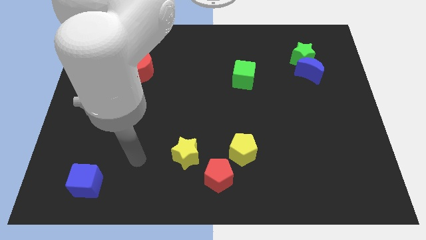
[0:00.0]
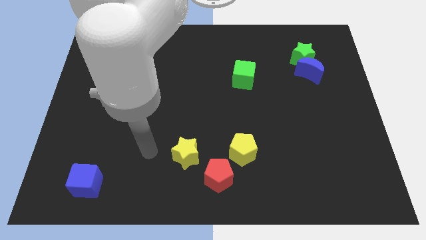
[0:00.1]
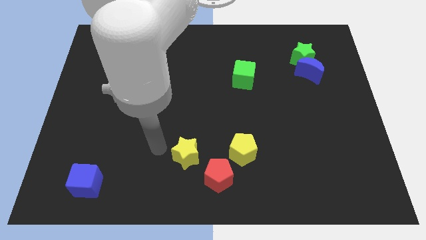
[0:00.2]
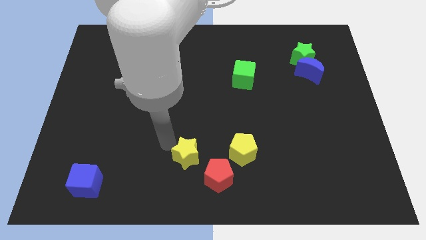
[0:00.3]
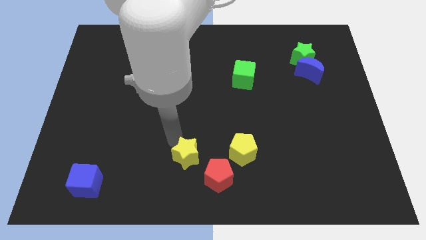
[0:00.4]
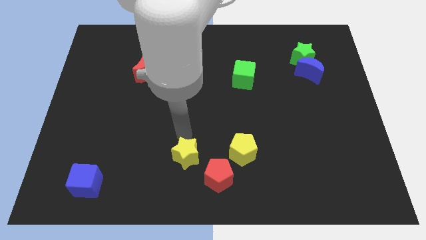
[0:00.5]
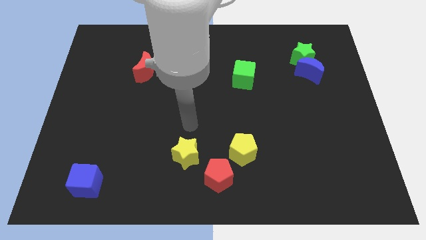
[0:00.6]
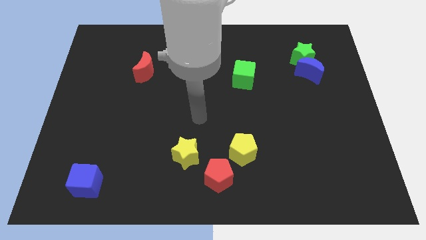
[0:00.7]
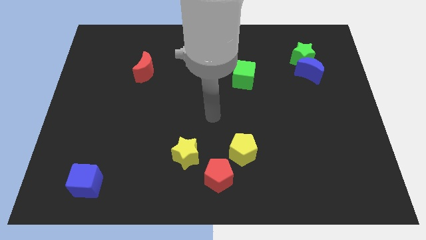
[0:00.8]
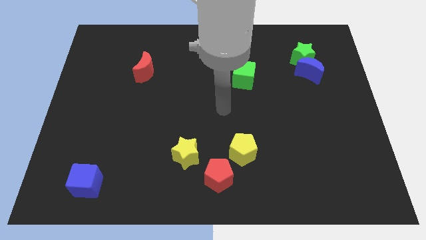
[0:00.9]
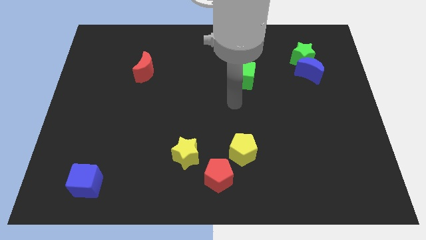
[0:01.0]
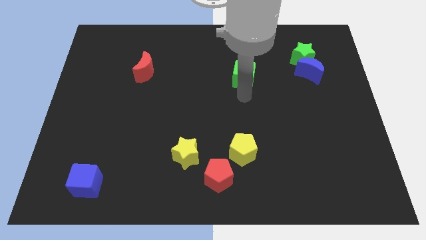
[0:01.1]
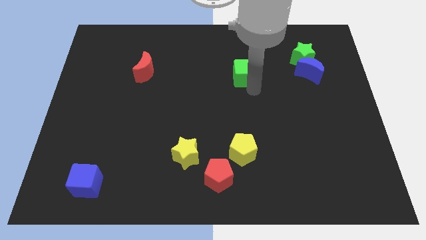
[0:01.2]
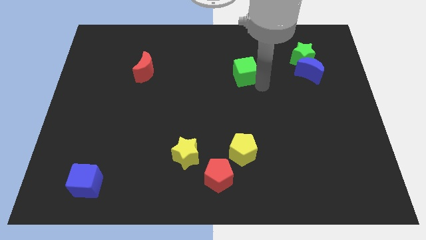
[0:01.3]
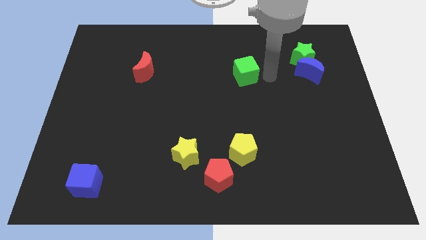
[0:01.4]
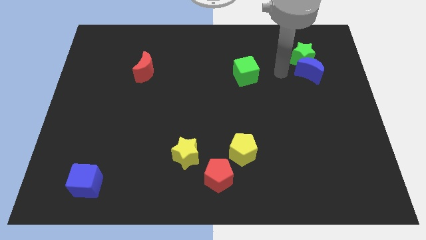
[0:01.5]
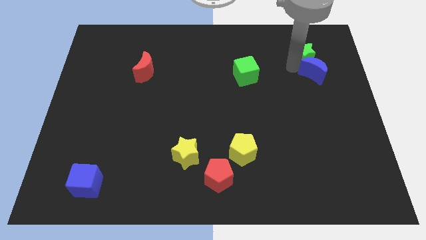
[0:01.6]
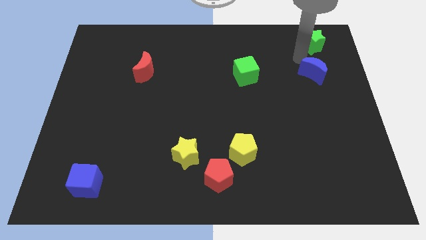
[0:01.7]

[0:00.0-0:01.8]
separate the blue moon from the green star

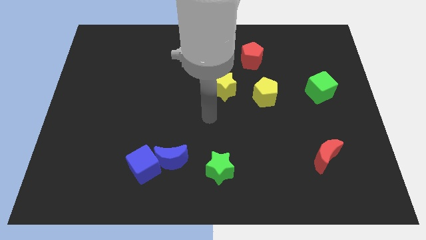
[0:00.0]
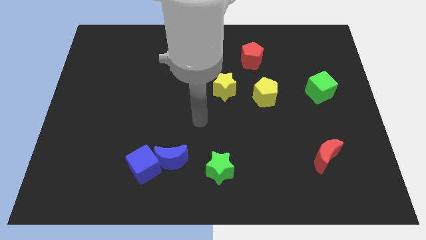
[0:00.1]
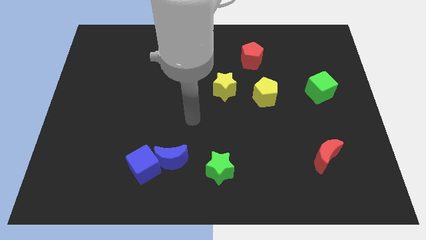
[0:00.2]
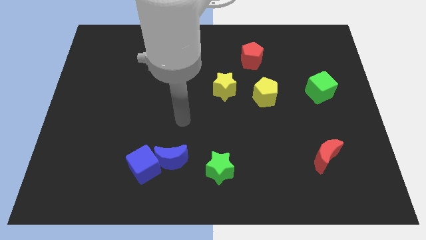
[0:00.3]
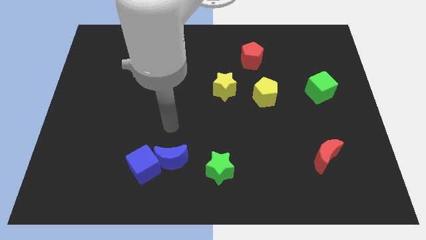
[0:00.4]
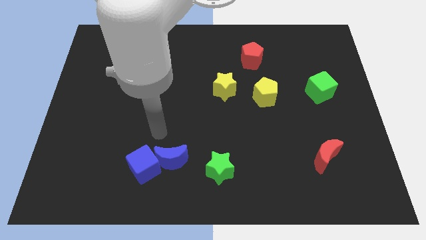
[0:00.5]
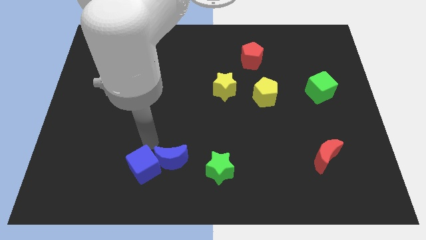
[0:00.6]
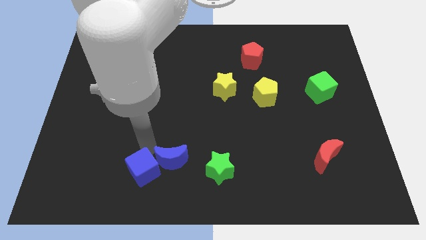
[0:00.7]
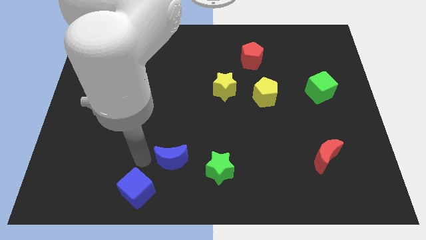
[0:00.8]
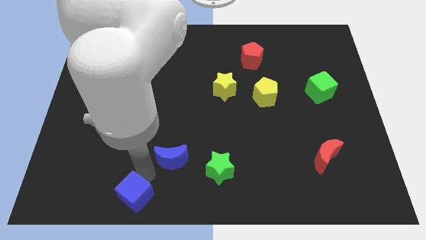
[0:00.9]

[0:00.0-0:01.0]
move the blue moon away from the blue cube

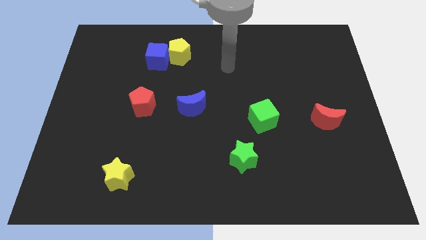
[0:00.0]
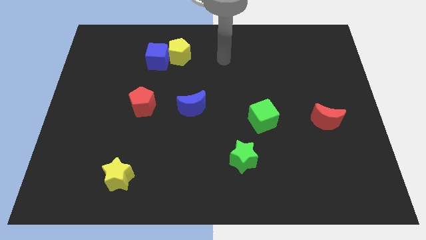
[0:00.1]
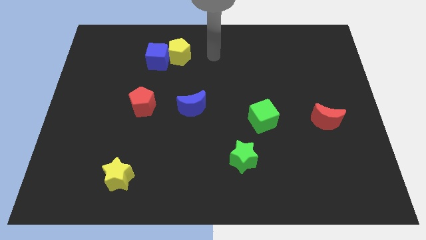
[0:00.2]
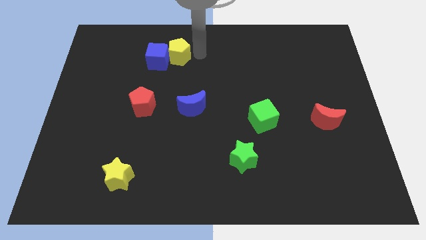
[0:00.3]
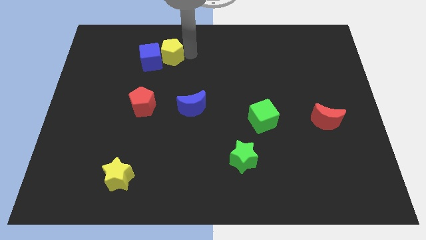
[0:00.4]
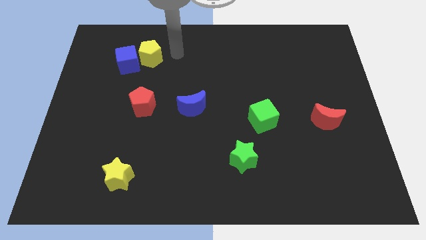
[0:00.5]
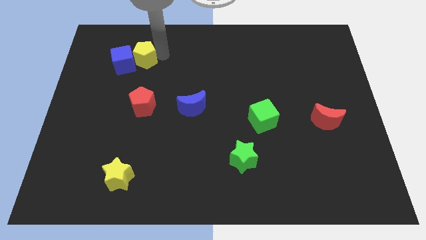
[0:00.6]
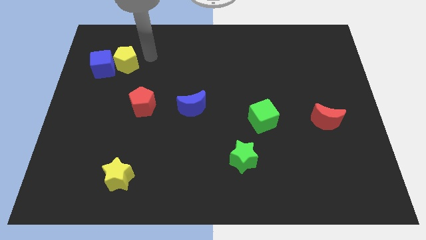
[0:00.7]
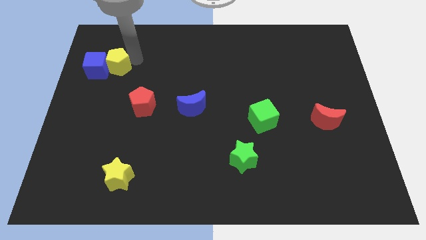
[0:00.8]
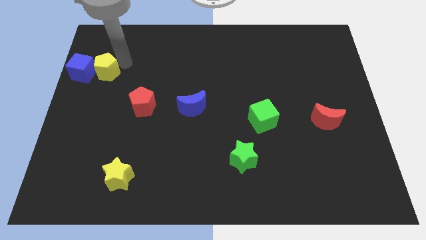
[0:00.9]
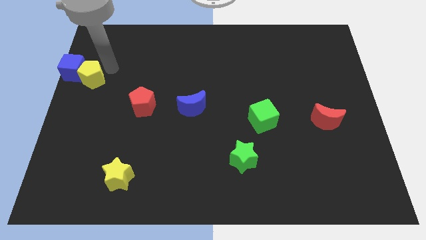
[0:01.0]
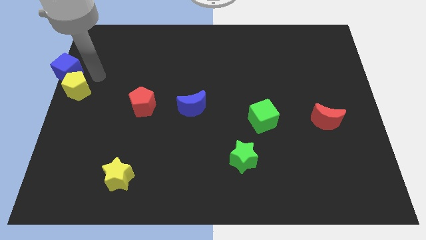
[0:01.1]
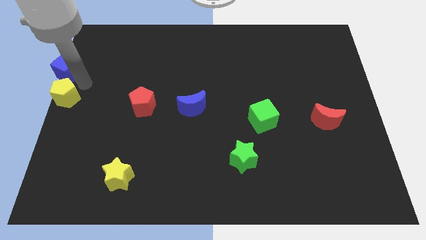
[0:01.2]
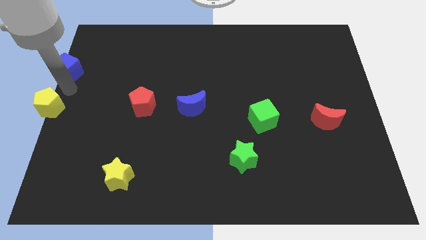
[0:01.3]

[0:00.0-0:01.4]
move the blue cube away from the yellow pentagon

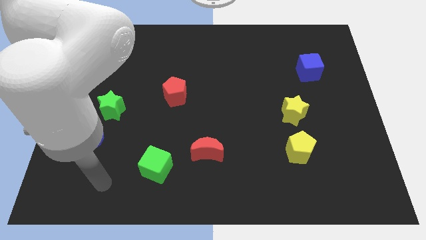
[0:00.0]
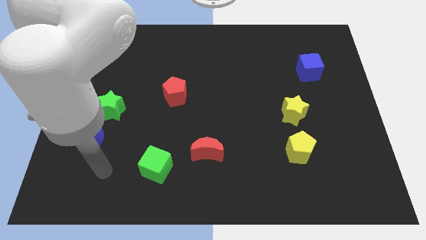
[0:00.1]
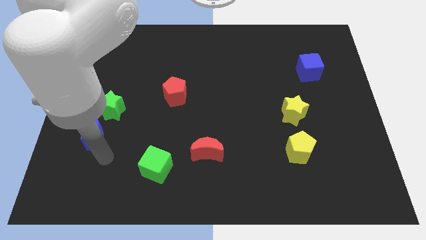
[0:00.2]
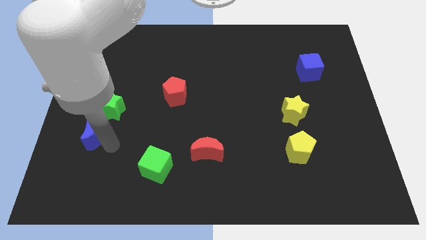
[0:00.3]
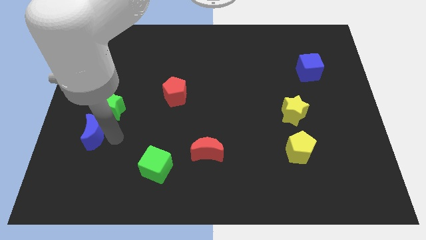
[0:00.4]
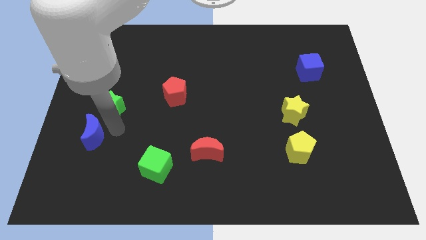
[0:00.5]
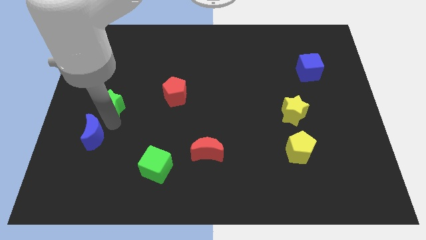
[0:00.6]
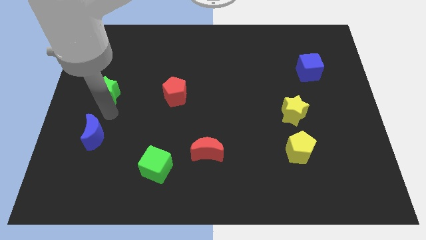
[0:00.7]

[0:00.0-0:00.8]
pull the blue moon apart from the green star

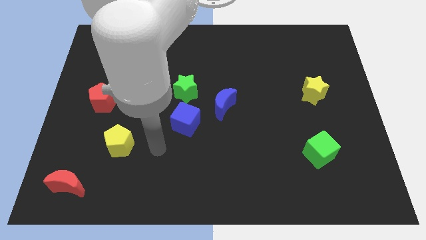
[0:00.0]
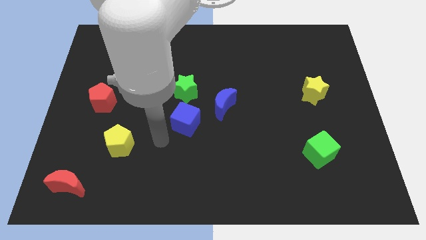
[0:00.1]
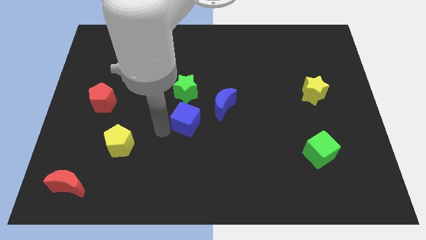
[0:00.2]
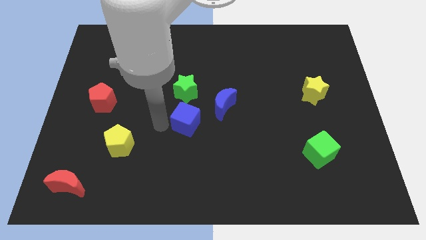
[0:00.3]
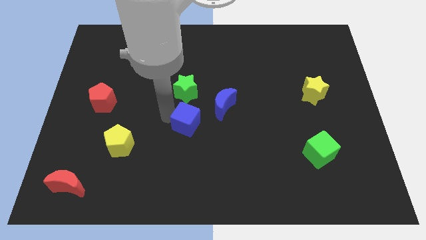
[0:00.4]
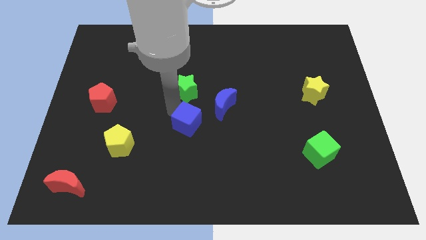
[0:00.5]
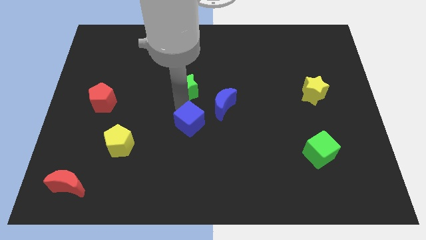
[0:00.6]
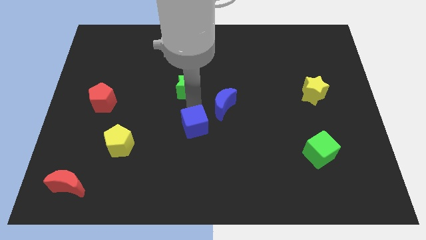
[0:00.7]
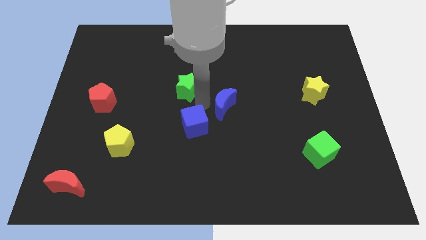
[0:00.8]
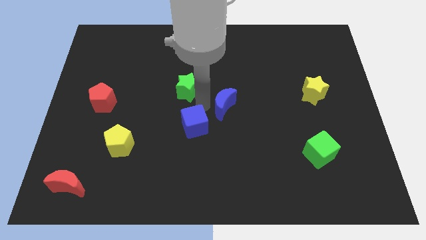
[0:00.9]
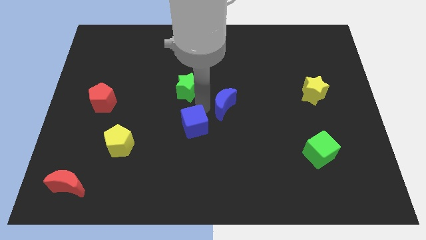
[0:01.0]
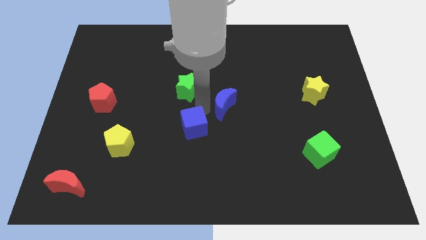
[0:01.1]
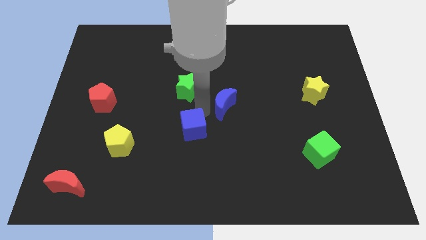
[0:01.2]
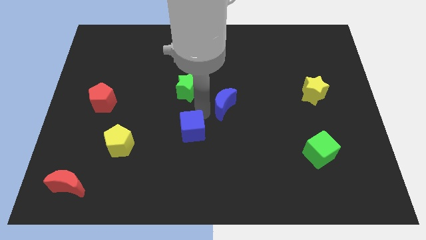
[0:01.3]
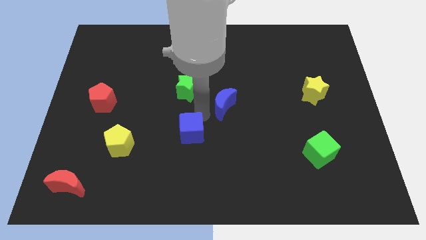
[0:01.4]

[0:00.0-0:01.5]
pull the blue cube apart from the green star and blue moon

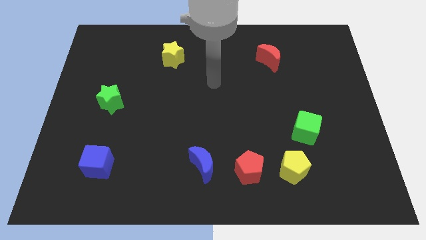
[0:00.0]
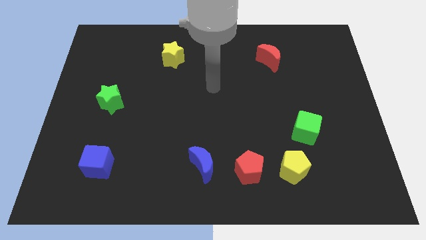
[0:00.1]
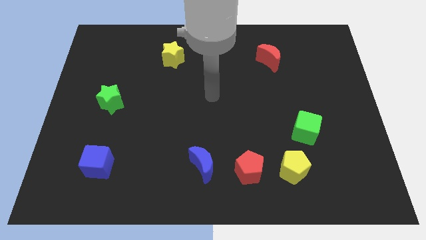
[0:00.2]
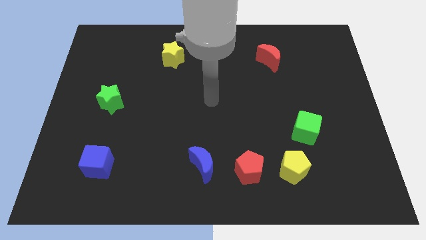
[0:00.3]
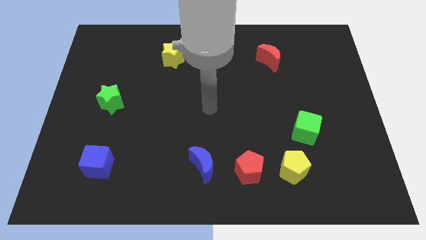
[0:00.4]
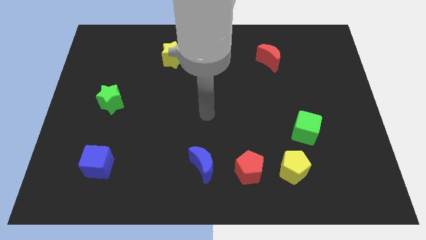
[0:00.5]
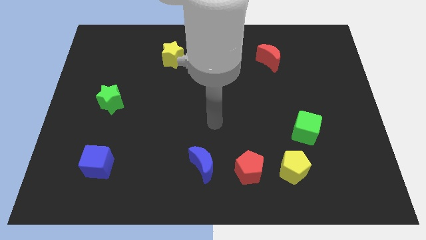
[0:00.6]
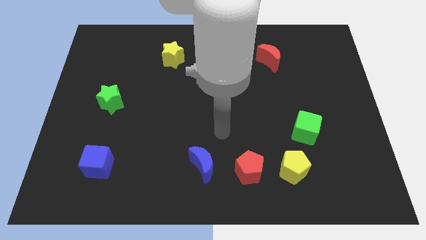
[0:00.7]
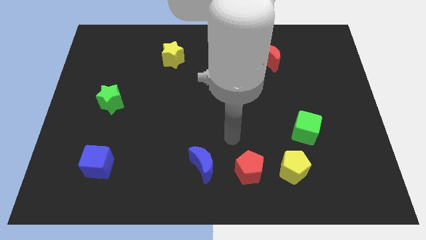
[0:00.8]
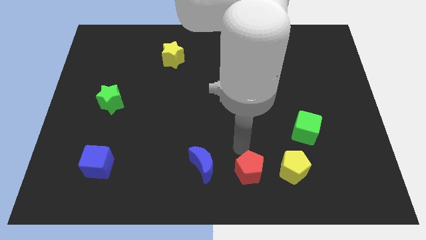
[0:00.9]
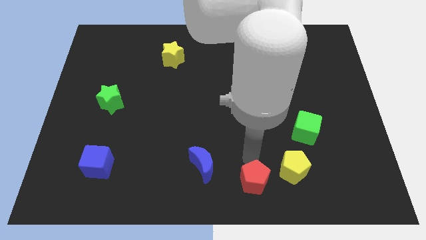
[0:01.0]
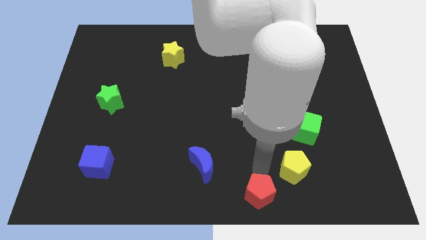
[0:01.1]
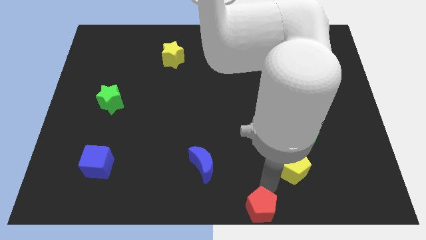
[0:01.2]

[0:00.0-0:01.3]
separate the yellow pentagon from the red pentagon

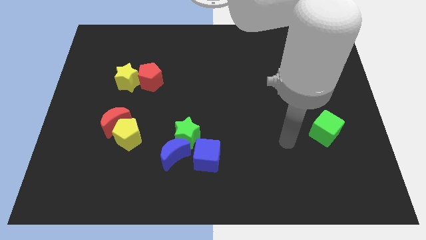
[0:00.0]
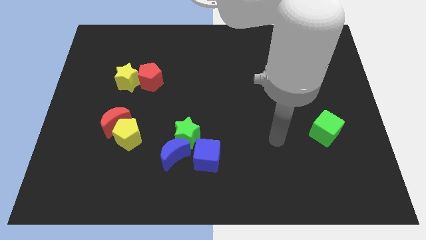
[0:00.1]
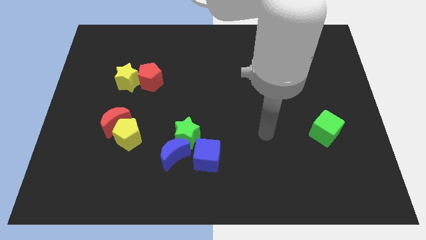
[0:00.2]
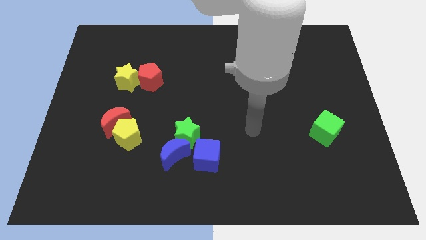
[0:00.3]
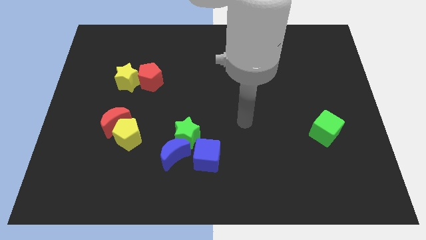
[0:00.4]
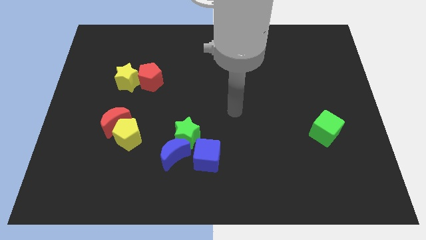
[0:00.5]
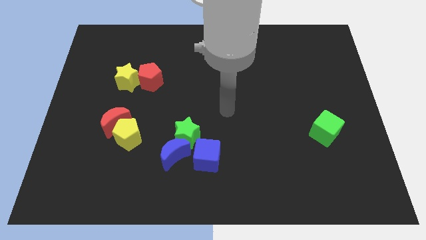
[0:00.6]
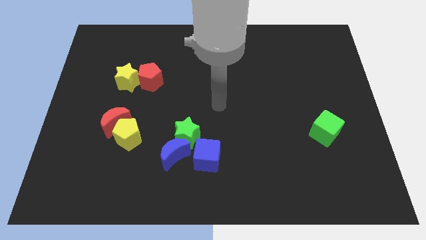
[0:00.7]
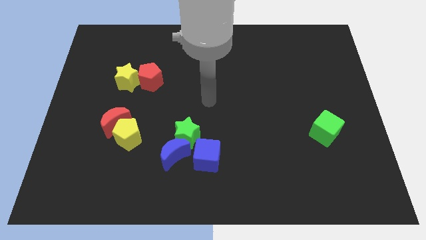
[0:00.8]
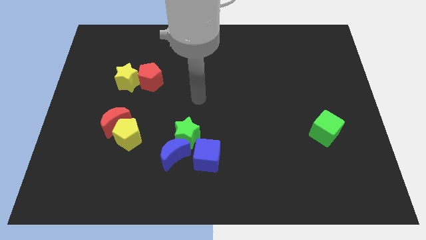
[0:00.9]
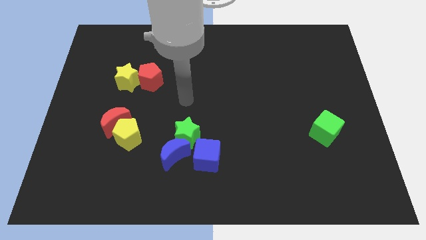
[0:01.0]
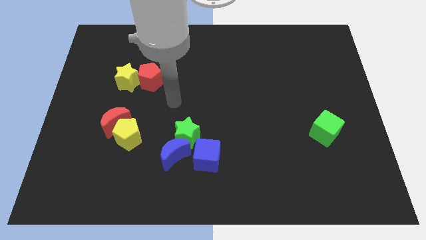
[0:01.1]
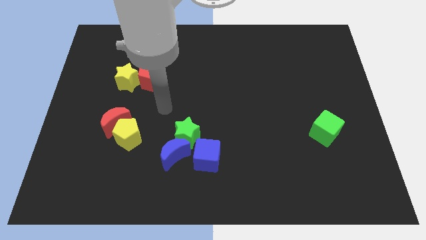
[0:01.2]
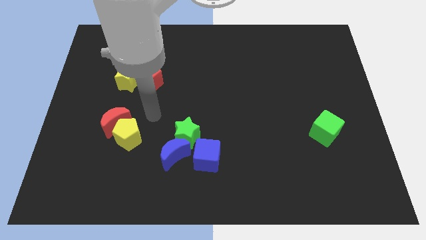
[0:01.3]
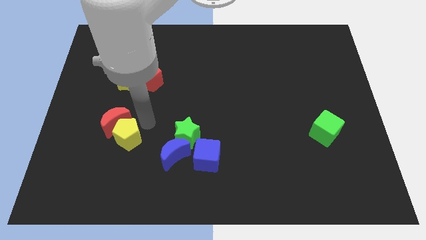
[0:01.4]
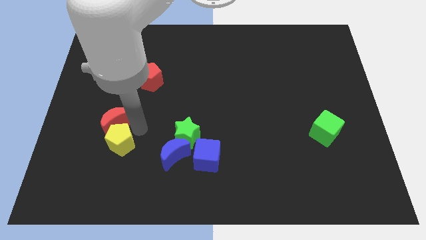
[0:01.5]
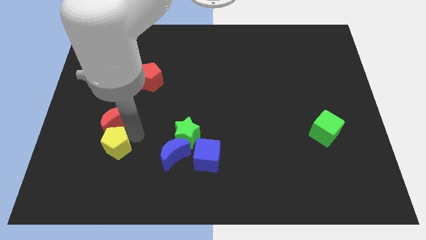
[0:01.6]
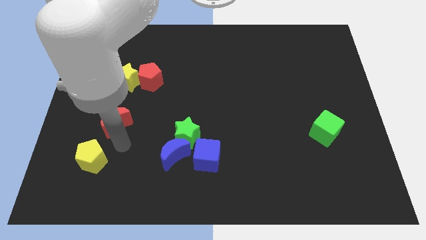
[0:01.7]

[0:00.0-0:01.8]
pull the red moon apart from the yellow pentagon
